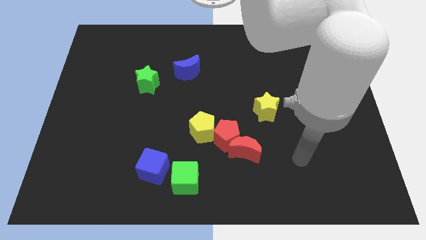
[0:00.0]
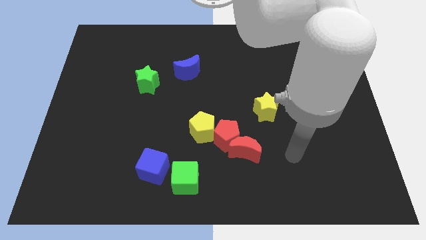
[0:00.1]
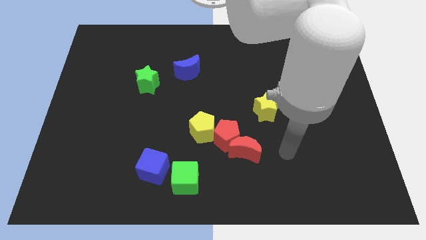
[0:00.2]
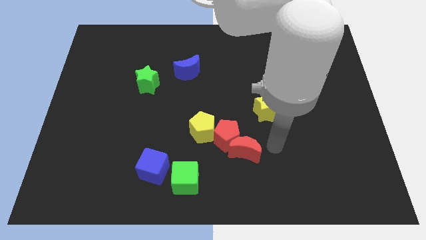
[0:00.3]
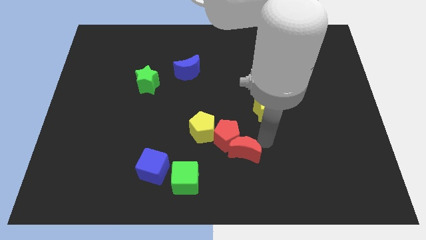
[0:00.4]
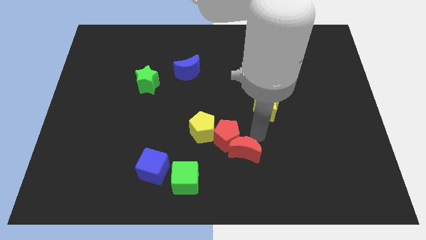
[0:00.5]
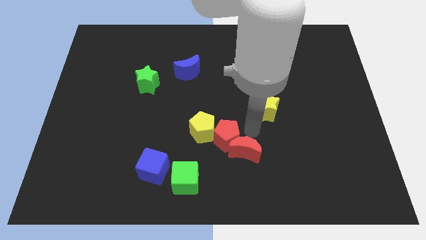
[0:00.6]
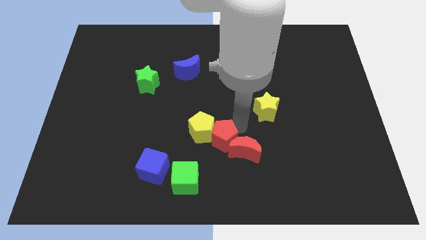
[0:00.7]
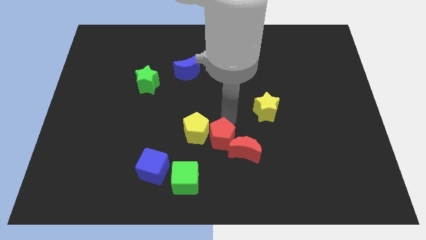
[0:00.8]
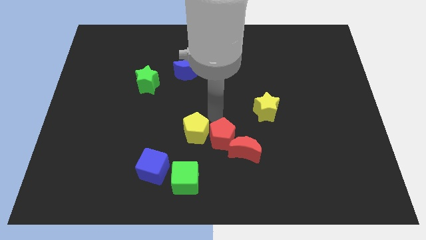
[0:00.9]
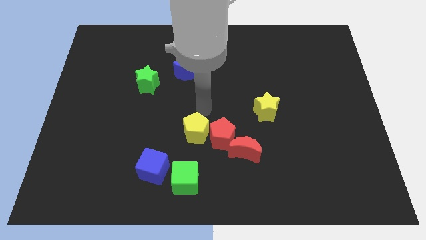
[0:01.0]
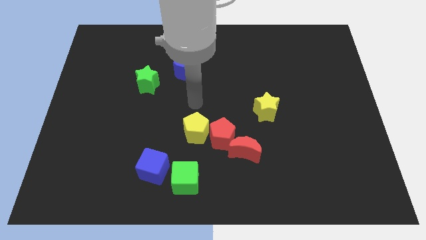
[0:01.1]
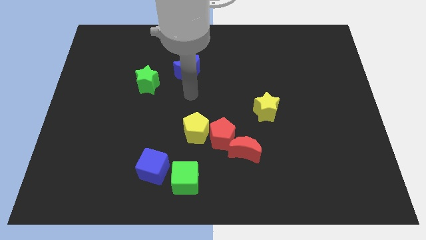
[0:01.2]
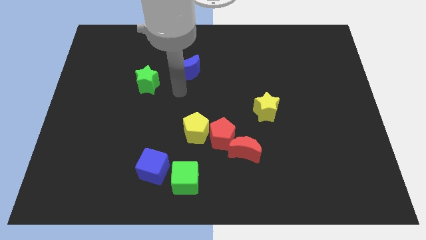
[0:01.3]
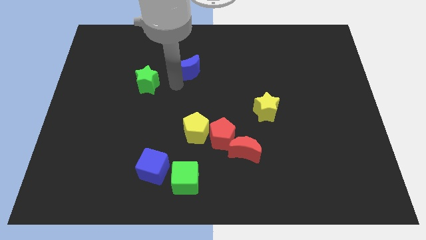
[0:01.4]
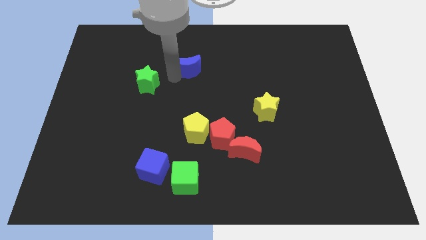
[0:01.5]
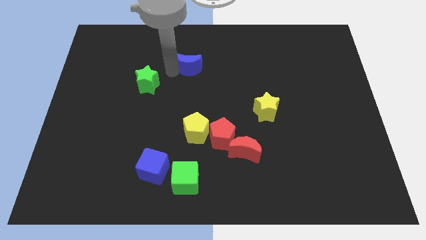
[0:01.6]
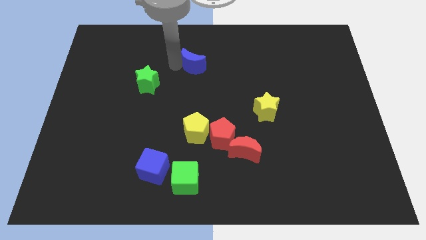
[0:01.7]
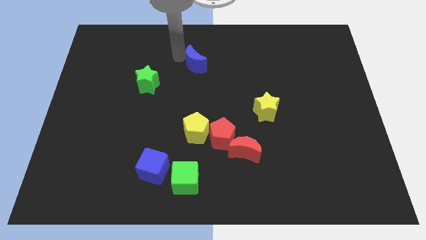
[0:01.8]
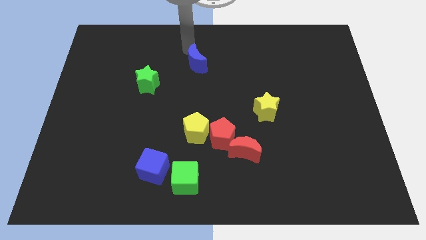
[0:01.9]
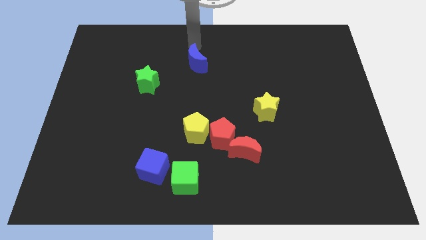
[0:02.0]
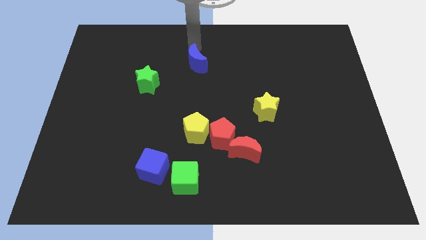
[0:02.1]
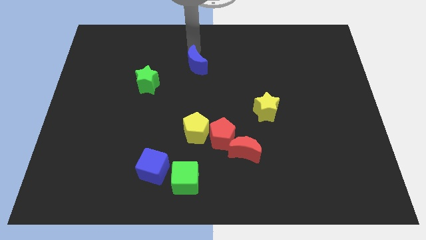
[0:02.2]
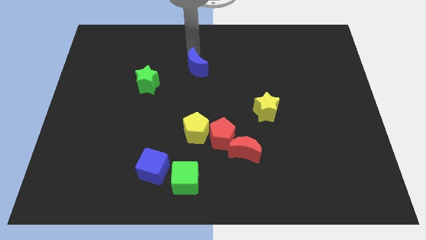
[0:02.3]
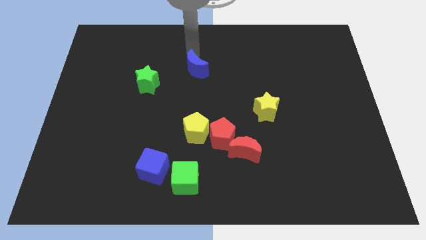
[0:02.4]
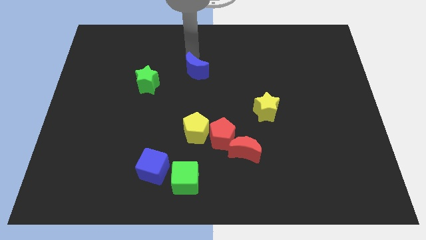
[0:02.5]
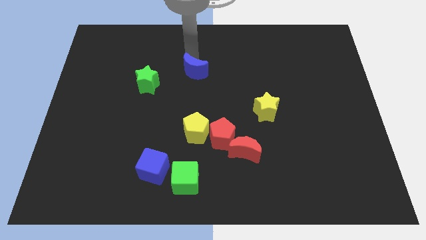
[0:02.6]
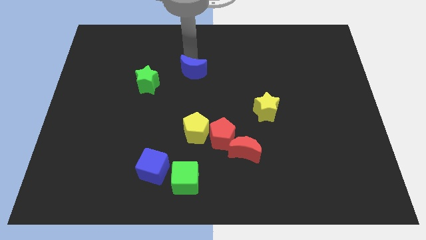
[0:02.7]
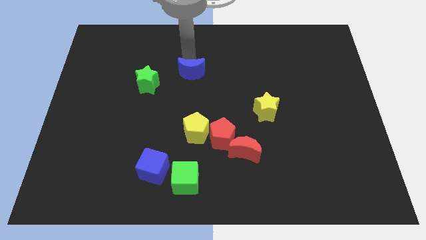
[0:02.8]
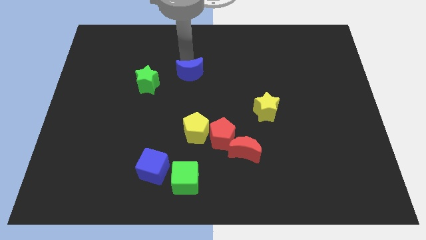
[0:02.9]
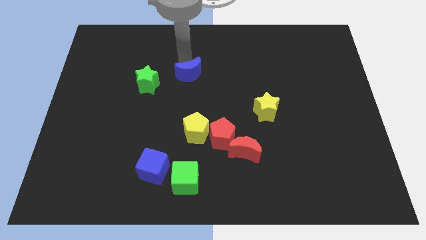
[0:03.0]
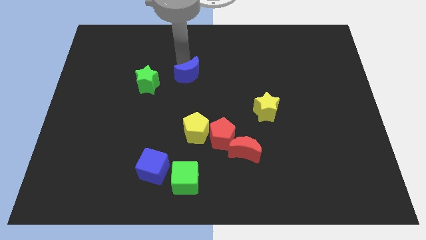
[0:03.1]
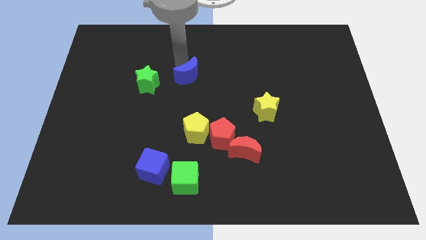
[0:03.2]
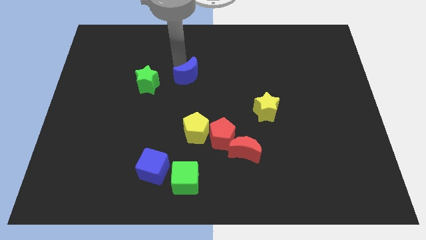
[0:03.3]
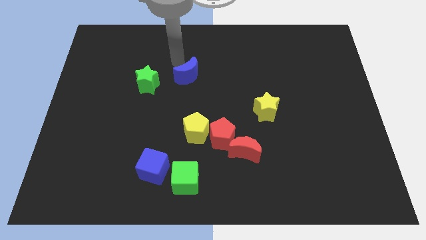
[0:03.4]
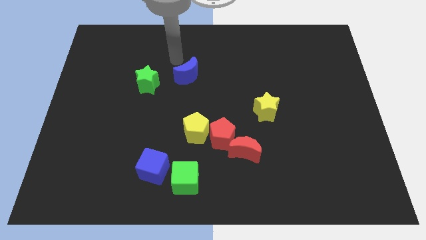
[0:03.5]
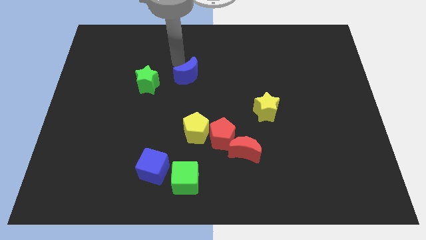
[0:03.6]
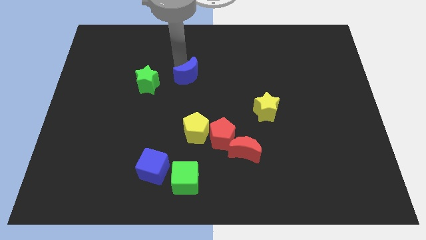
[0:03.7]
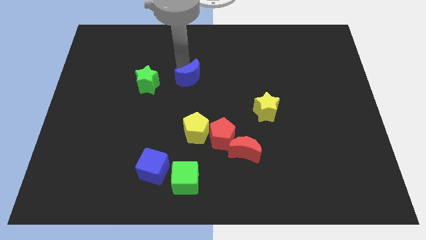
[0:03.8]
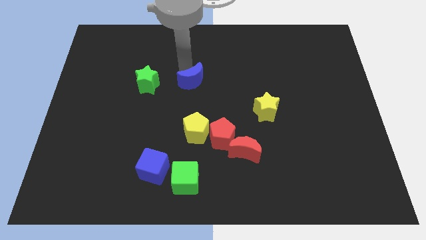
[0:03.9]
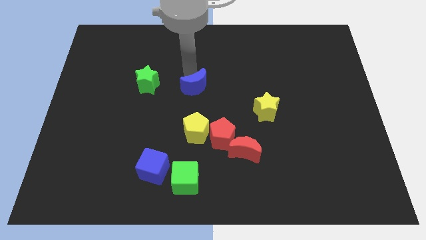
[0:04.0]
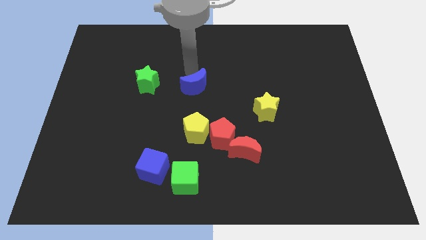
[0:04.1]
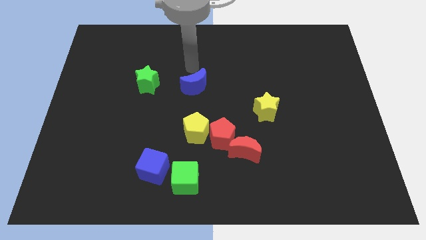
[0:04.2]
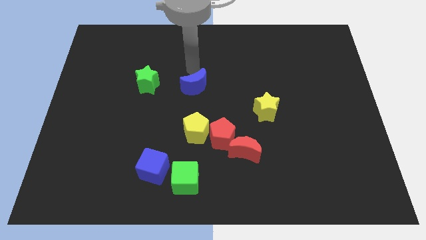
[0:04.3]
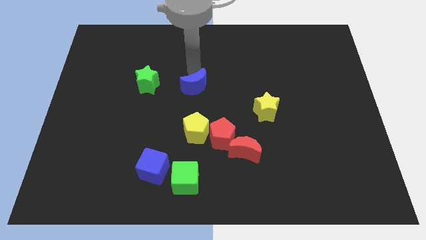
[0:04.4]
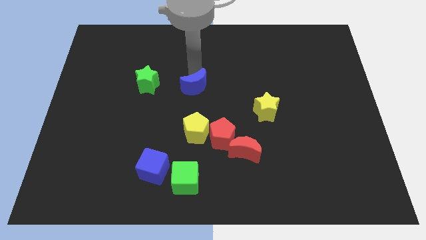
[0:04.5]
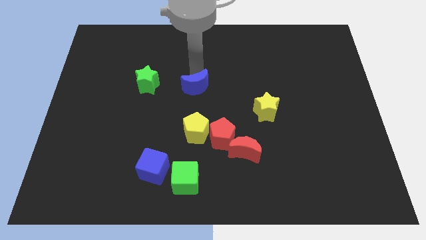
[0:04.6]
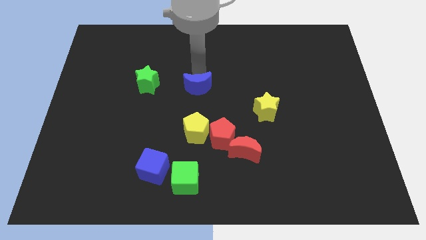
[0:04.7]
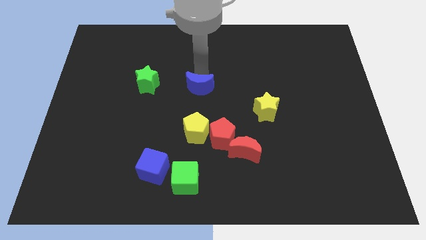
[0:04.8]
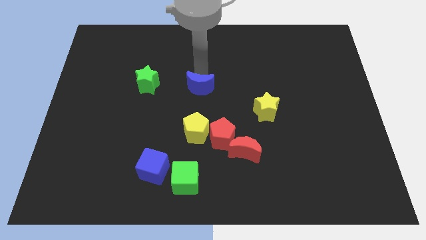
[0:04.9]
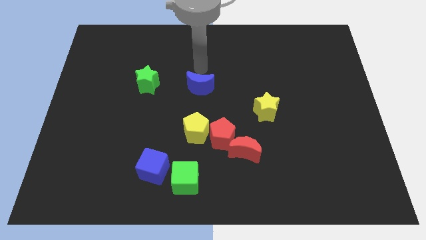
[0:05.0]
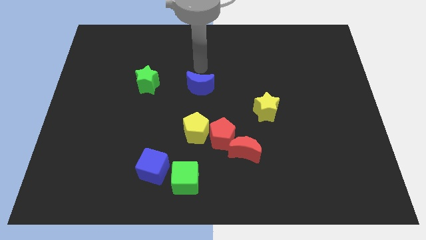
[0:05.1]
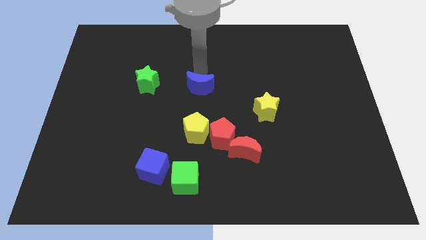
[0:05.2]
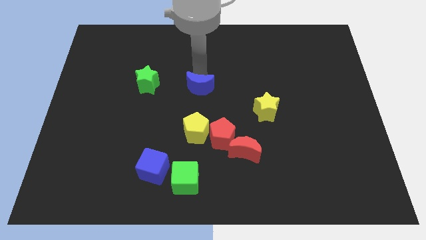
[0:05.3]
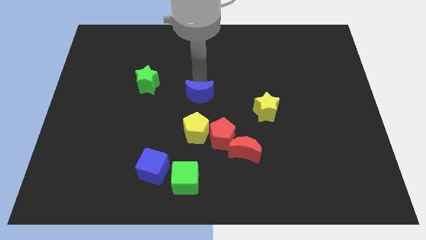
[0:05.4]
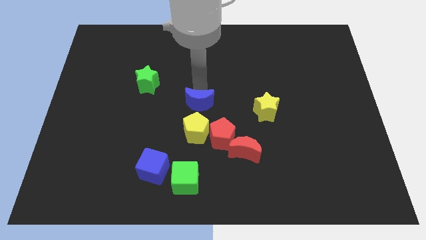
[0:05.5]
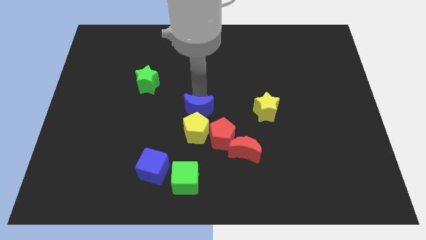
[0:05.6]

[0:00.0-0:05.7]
put the blue moon towards the yellow pentagon

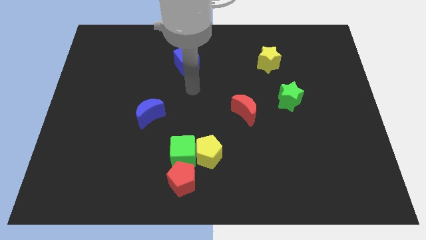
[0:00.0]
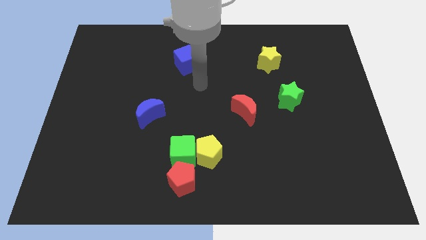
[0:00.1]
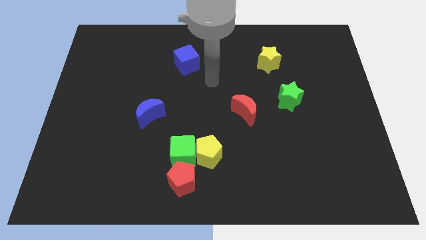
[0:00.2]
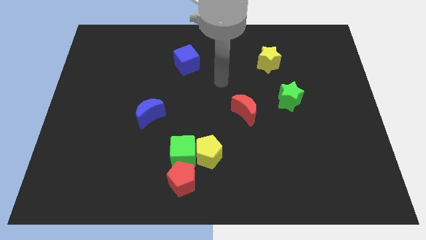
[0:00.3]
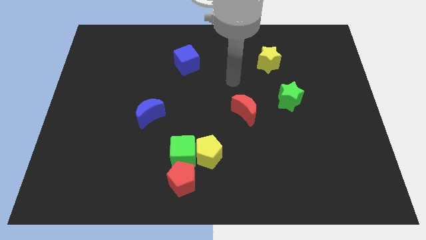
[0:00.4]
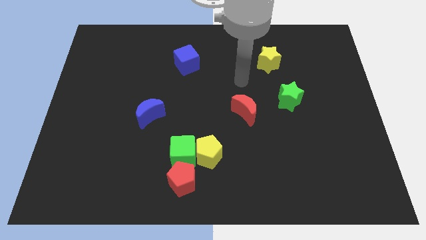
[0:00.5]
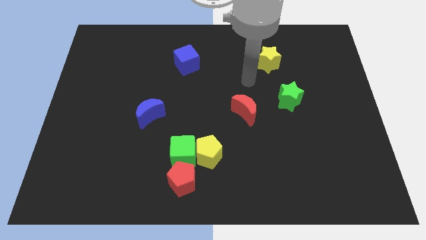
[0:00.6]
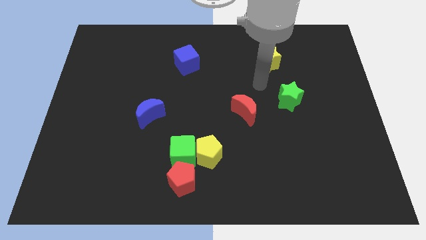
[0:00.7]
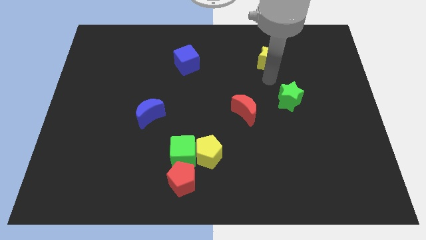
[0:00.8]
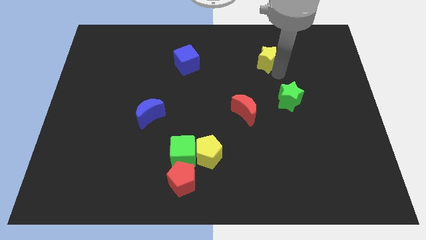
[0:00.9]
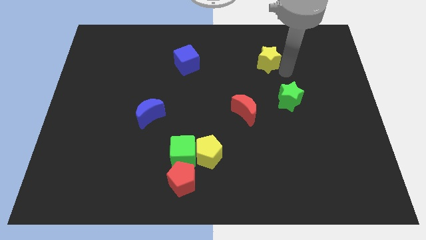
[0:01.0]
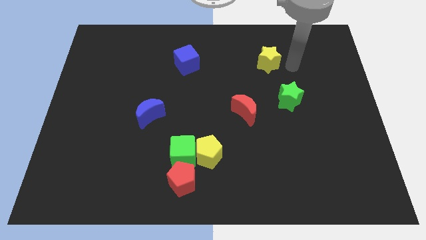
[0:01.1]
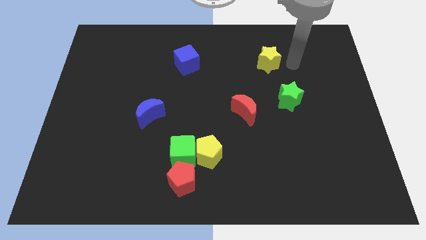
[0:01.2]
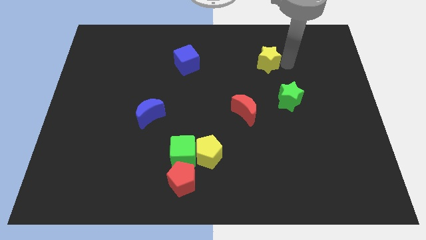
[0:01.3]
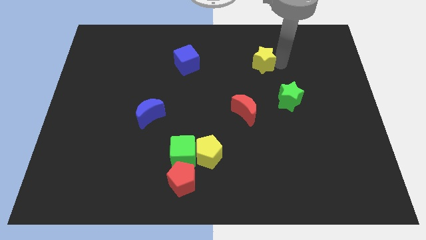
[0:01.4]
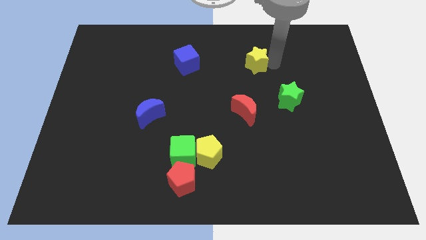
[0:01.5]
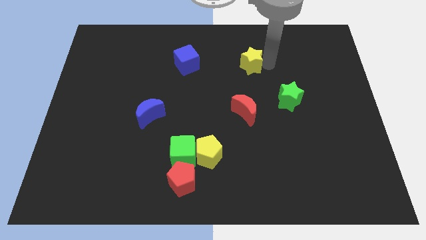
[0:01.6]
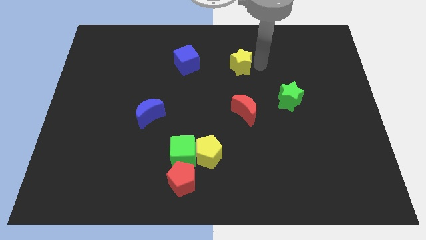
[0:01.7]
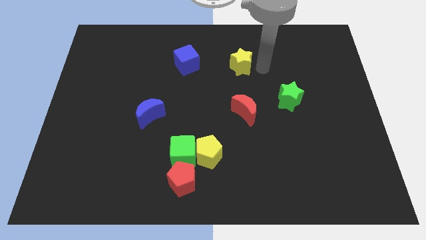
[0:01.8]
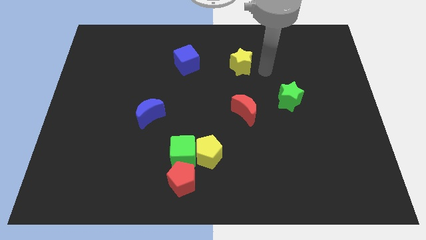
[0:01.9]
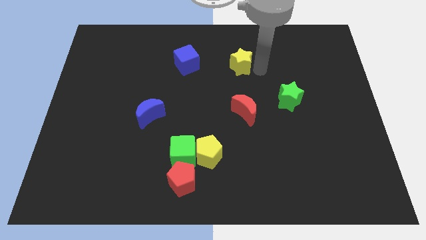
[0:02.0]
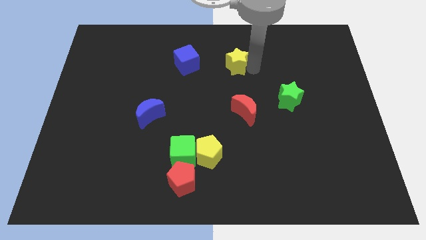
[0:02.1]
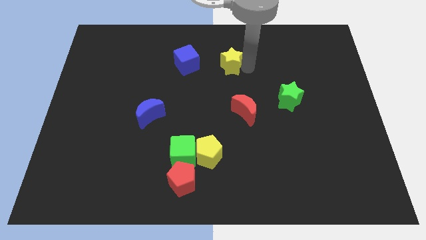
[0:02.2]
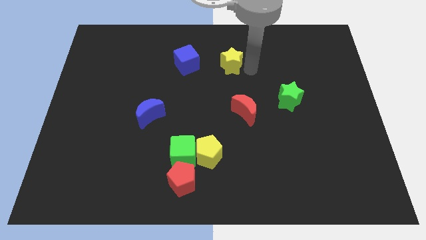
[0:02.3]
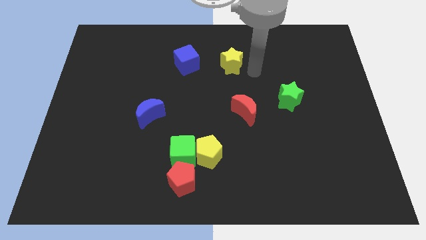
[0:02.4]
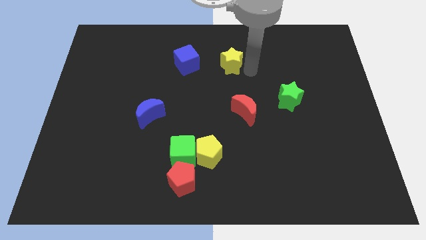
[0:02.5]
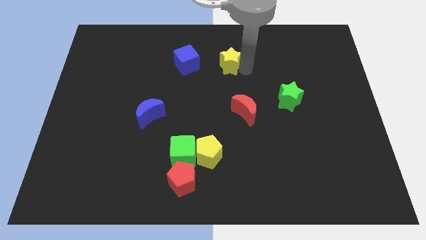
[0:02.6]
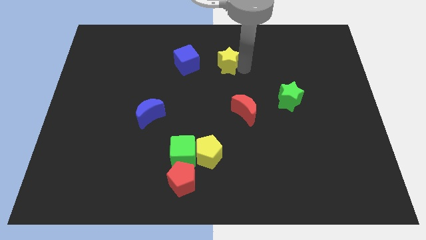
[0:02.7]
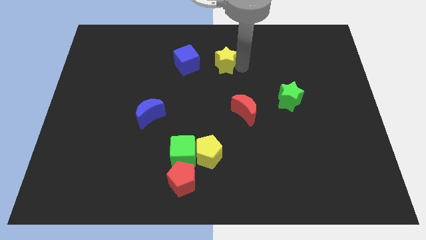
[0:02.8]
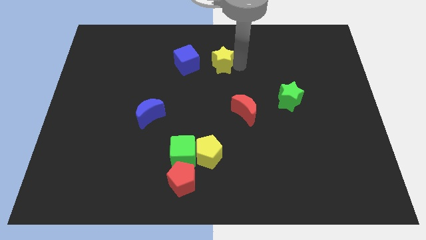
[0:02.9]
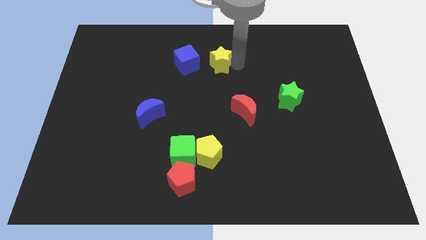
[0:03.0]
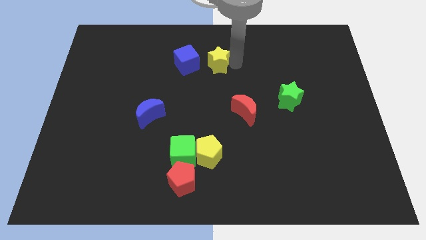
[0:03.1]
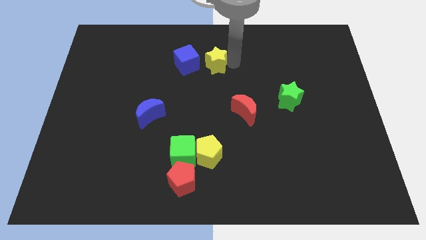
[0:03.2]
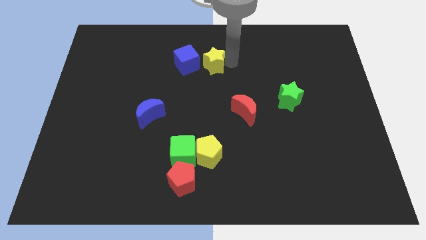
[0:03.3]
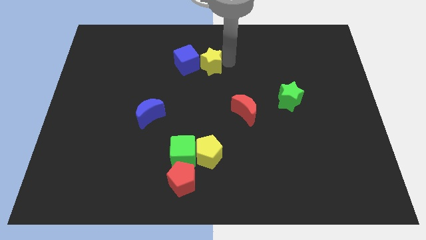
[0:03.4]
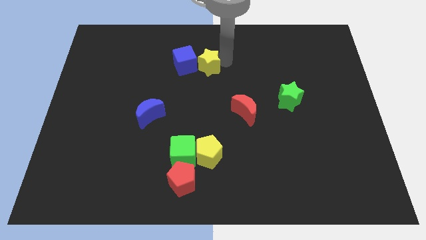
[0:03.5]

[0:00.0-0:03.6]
push the yellow star towards the blue cube
